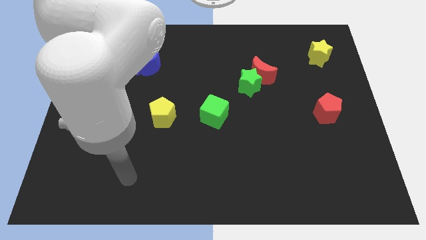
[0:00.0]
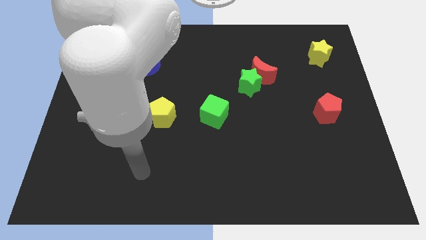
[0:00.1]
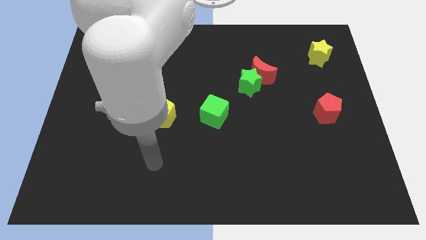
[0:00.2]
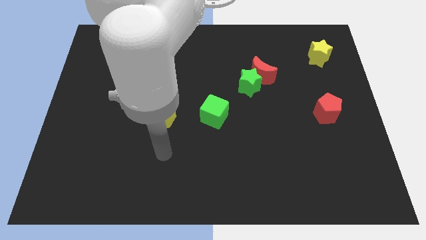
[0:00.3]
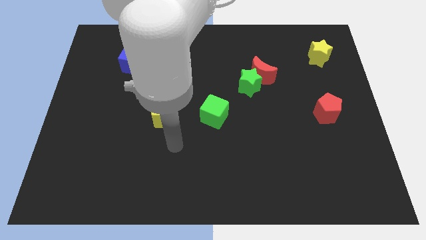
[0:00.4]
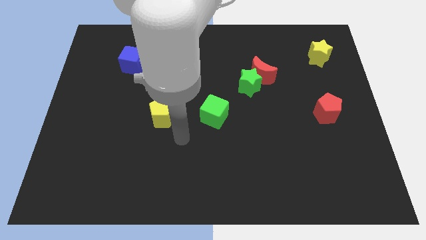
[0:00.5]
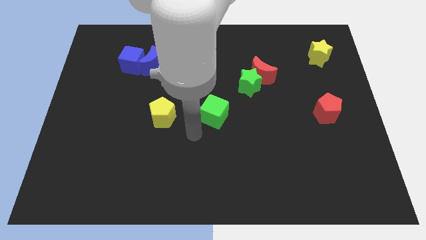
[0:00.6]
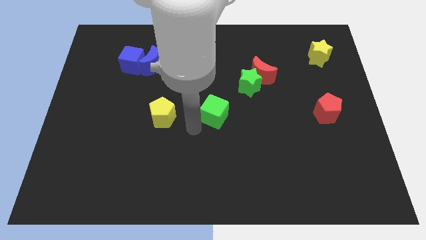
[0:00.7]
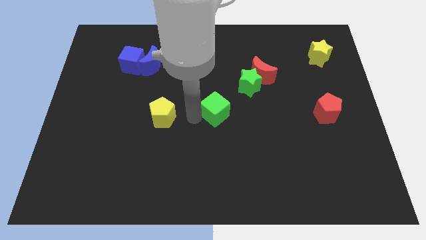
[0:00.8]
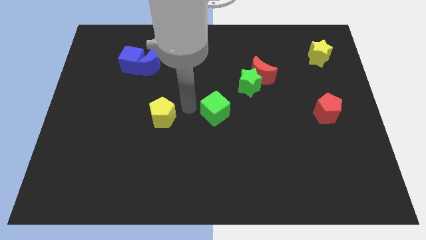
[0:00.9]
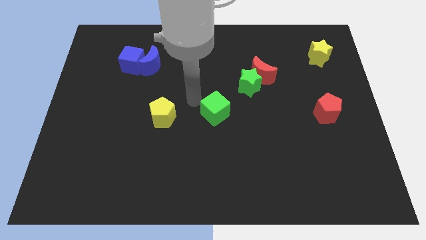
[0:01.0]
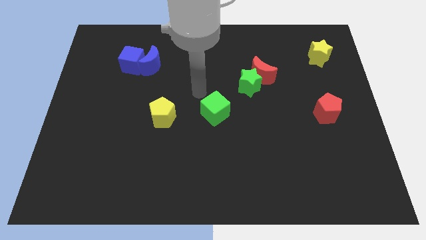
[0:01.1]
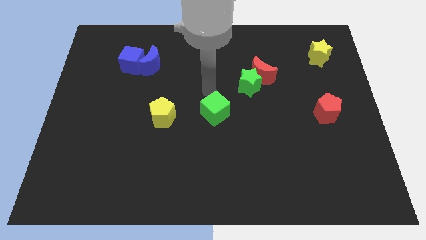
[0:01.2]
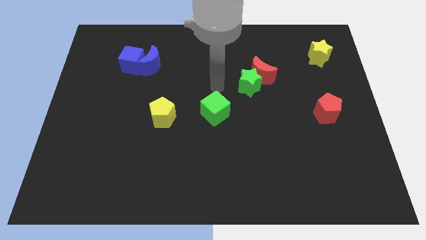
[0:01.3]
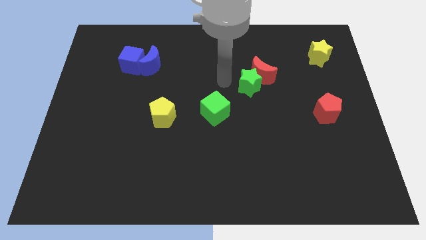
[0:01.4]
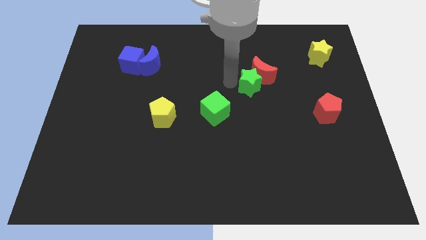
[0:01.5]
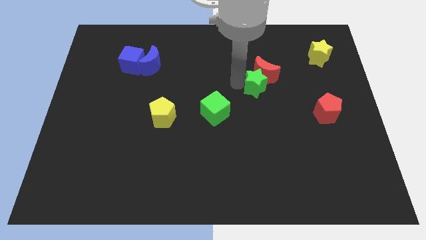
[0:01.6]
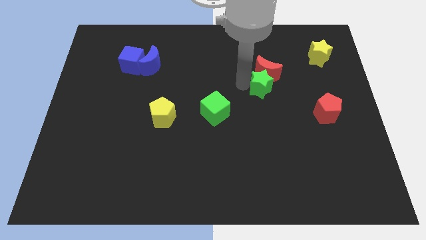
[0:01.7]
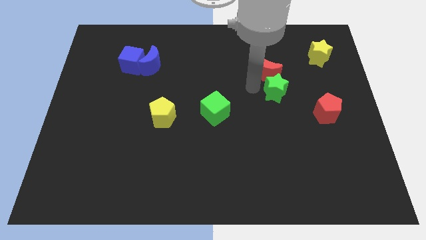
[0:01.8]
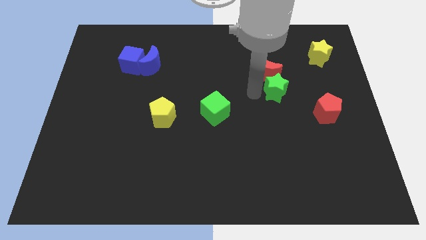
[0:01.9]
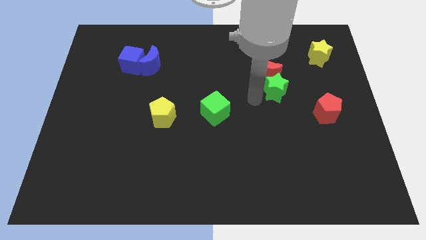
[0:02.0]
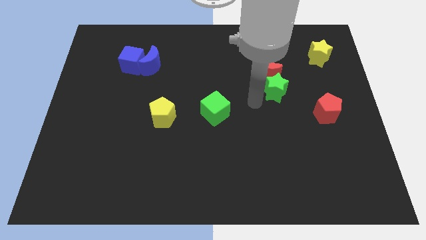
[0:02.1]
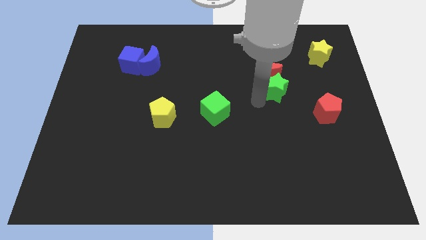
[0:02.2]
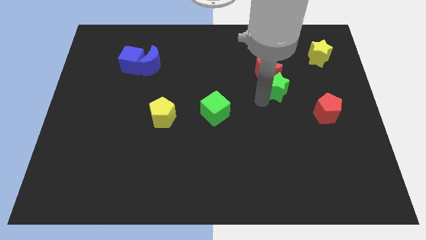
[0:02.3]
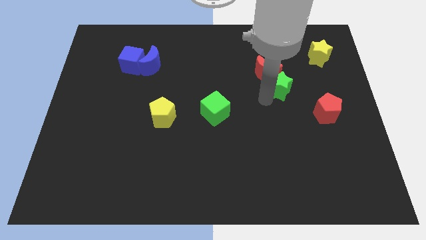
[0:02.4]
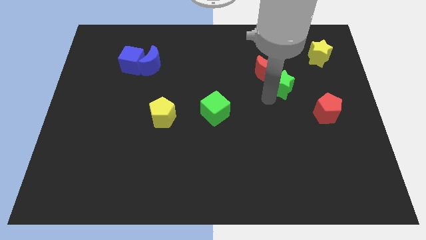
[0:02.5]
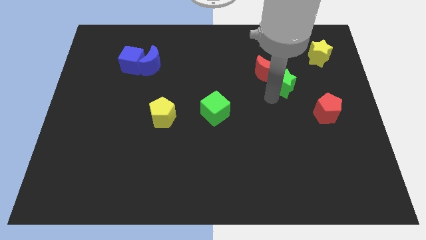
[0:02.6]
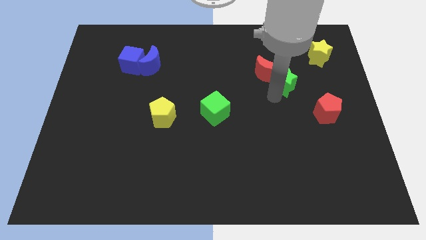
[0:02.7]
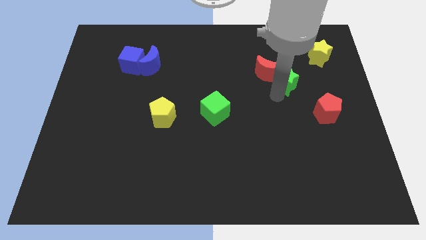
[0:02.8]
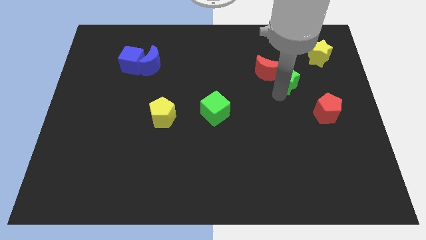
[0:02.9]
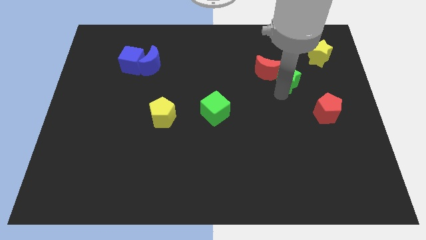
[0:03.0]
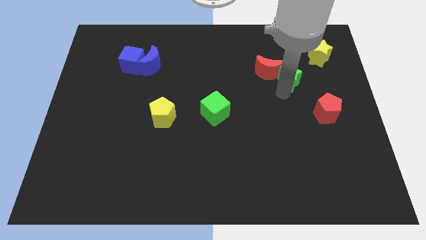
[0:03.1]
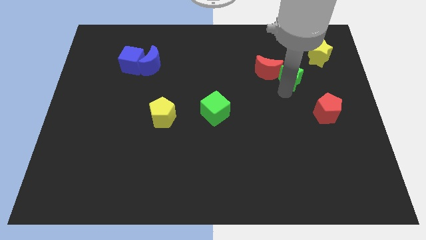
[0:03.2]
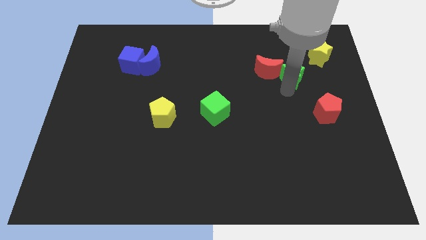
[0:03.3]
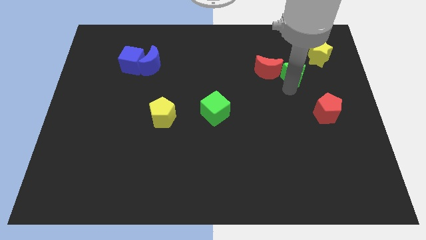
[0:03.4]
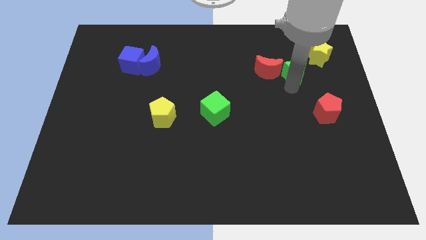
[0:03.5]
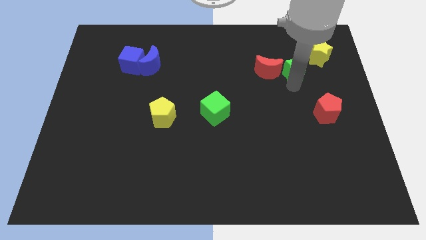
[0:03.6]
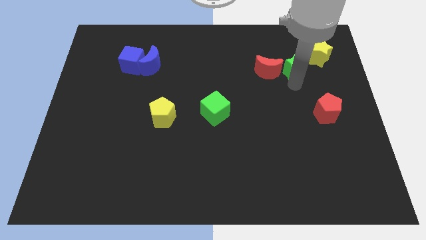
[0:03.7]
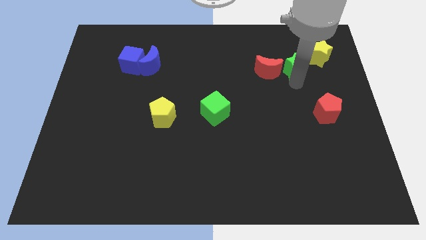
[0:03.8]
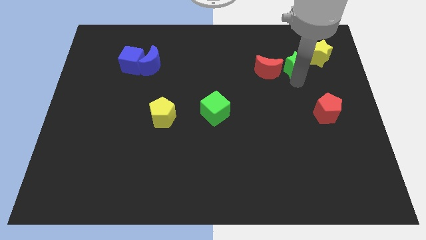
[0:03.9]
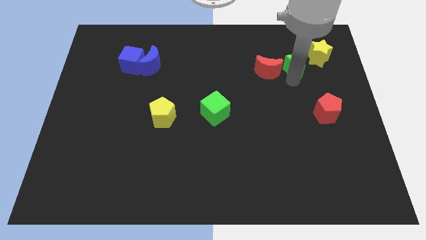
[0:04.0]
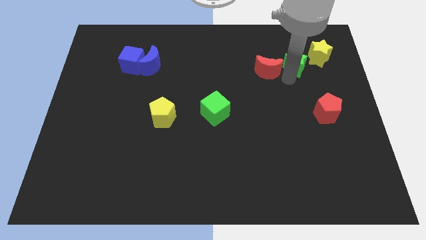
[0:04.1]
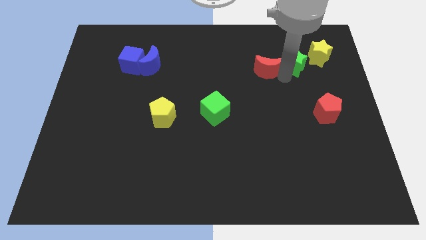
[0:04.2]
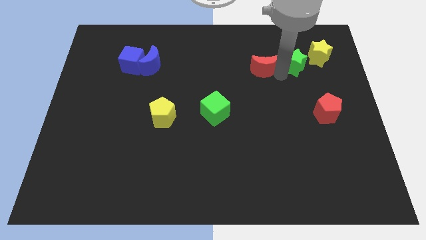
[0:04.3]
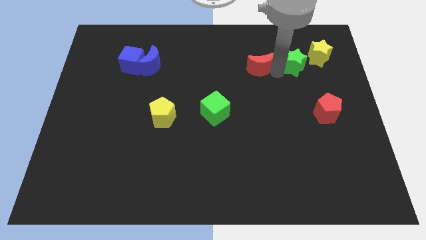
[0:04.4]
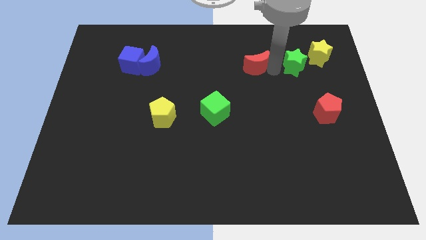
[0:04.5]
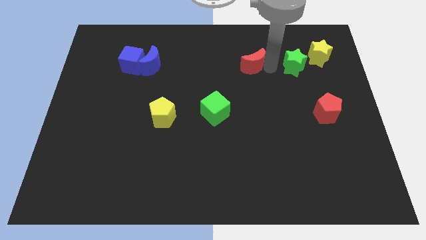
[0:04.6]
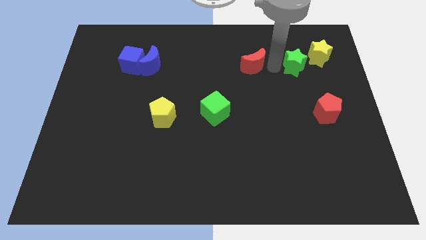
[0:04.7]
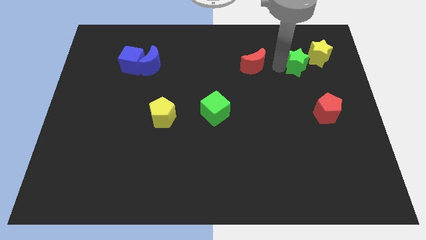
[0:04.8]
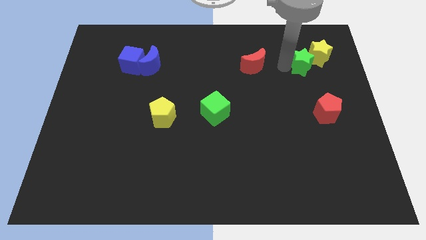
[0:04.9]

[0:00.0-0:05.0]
put the green star towards the yellow star

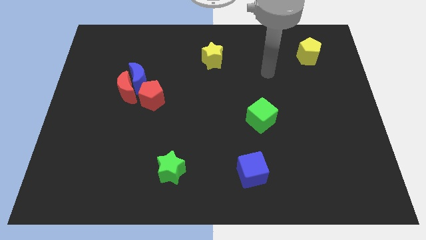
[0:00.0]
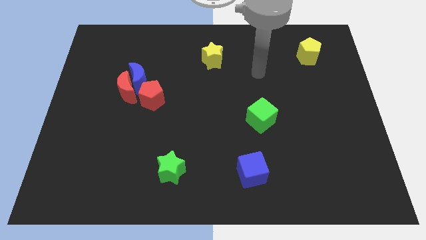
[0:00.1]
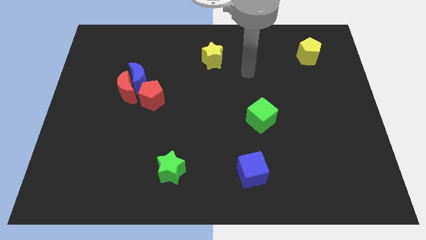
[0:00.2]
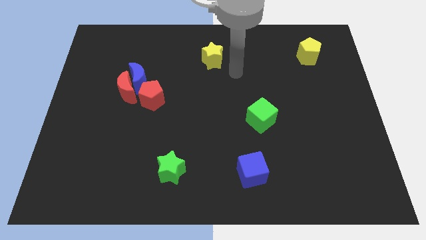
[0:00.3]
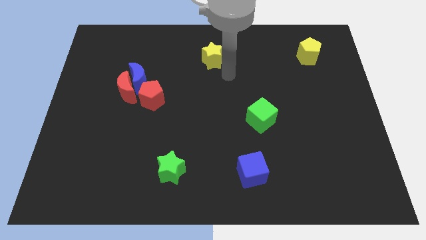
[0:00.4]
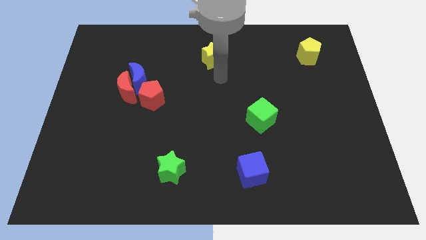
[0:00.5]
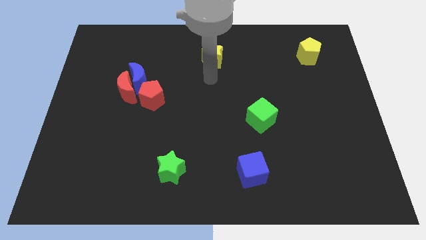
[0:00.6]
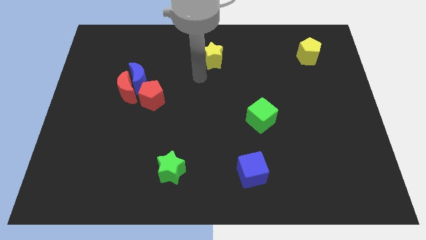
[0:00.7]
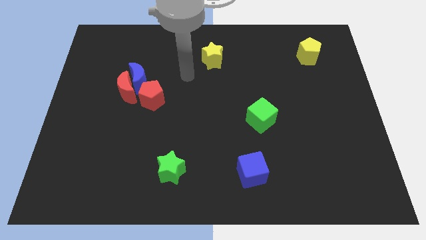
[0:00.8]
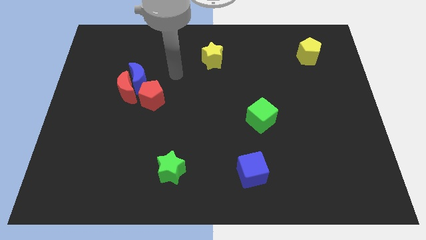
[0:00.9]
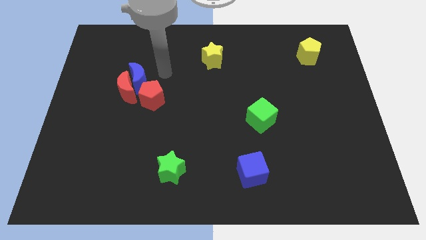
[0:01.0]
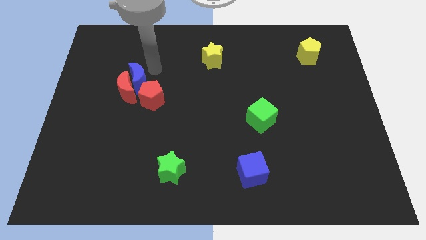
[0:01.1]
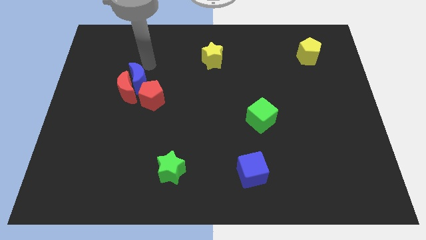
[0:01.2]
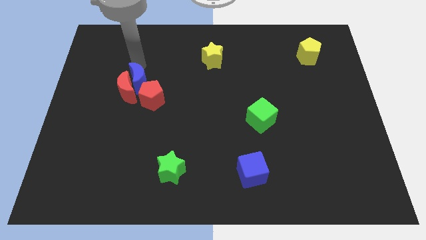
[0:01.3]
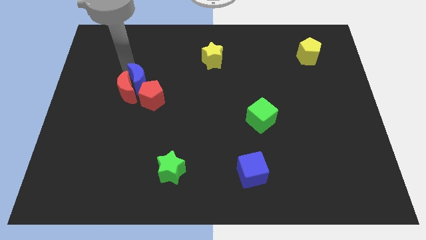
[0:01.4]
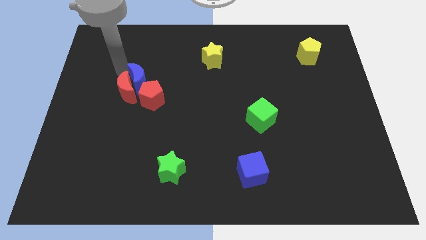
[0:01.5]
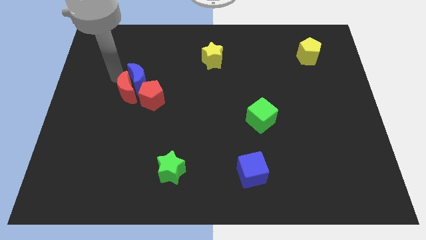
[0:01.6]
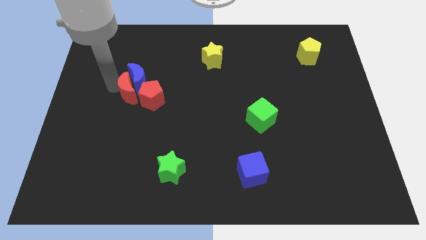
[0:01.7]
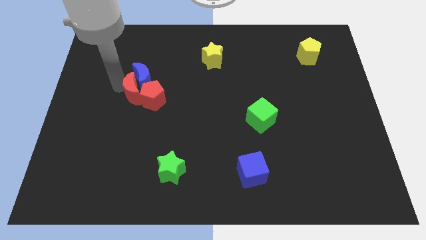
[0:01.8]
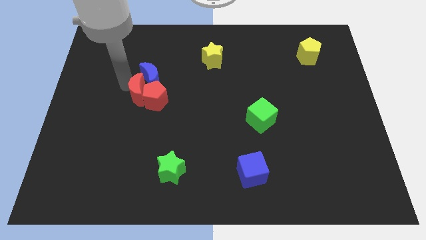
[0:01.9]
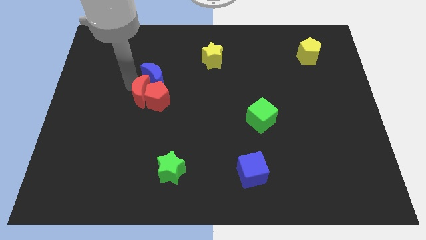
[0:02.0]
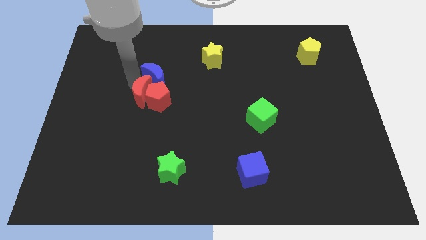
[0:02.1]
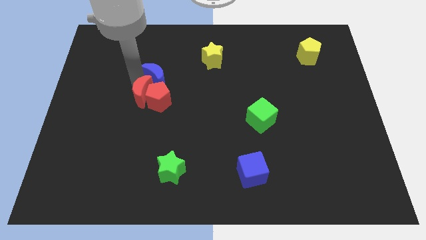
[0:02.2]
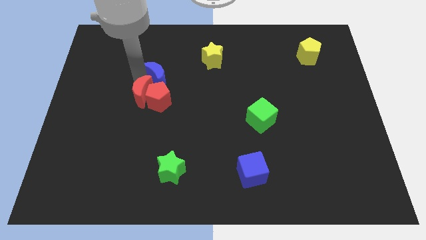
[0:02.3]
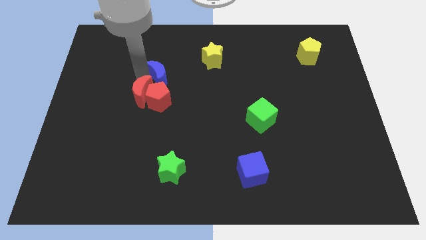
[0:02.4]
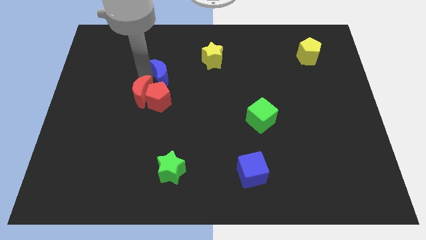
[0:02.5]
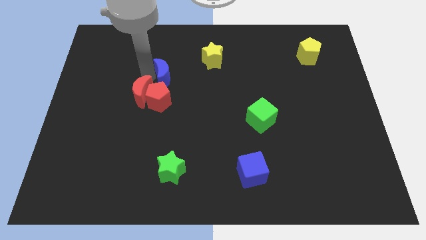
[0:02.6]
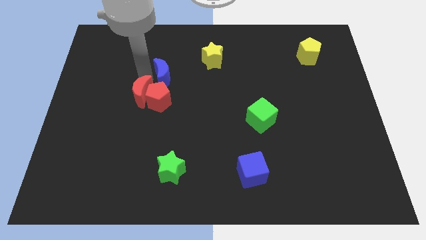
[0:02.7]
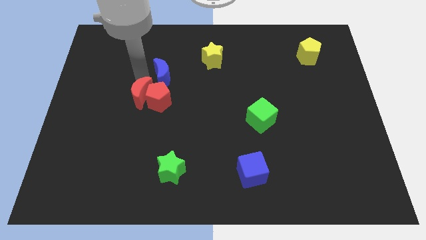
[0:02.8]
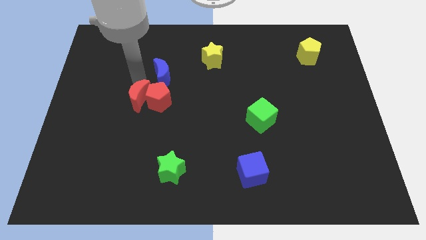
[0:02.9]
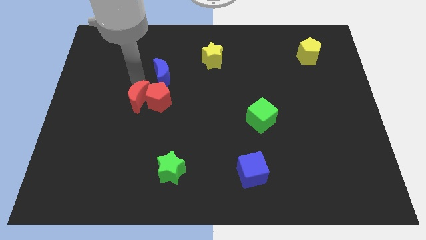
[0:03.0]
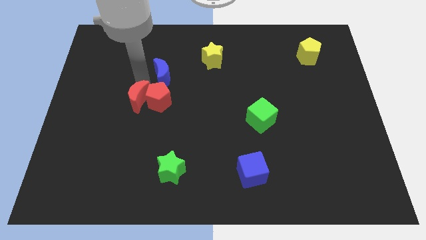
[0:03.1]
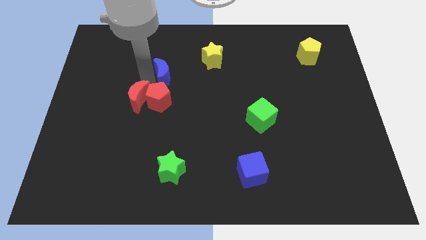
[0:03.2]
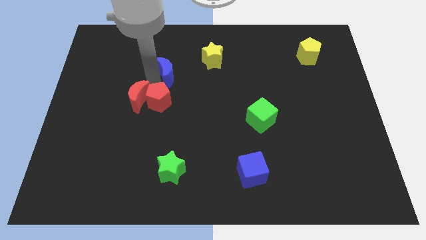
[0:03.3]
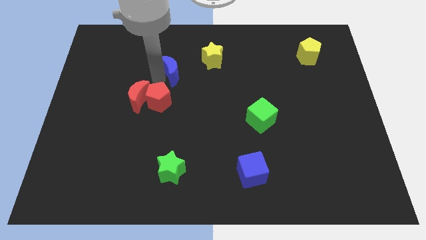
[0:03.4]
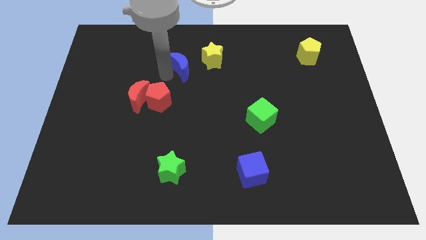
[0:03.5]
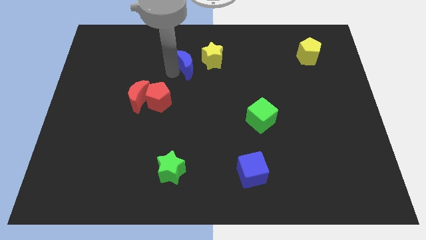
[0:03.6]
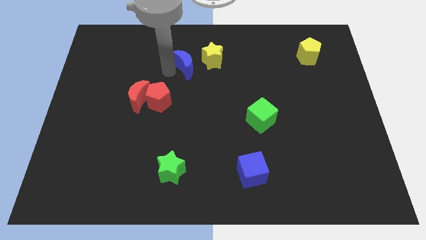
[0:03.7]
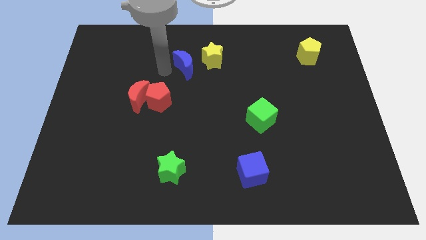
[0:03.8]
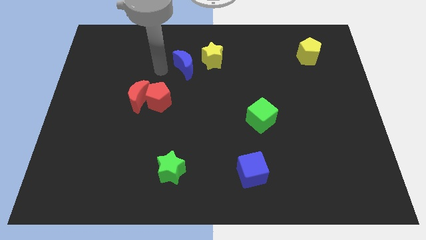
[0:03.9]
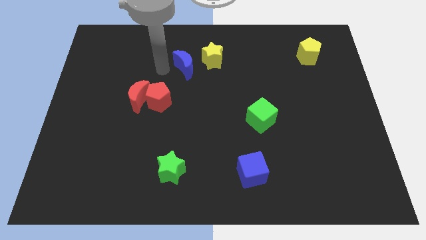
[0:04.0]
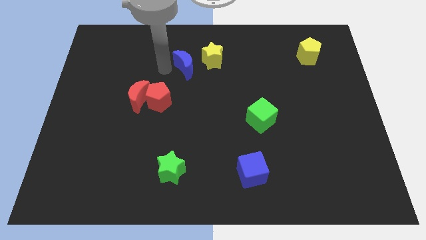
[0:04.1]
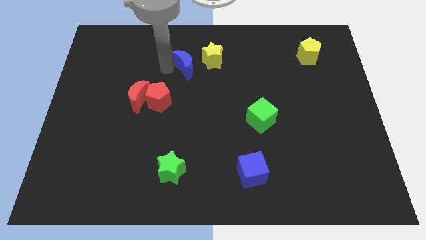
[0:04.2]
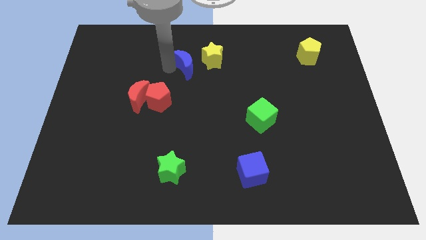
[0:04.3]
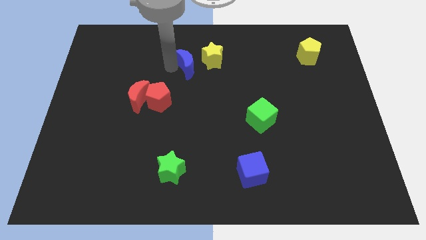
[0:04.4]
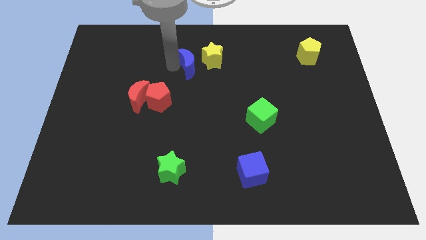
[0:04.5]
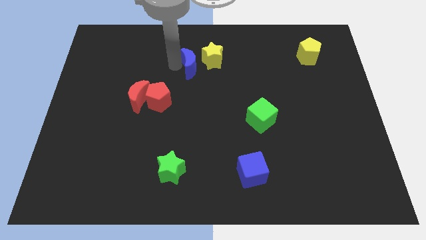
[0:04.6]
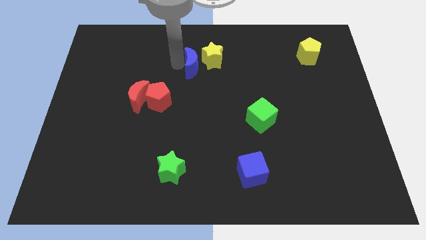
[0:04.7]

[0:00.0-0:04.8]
push the blue moon next to the yellow star
